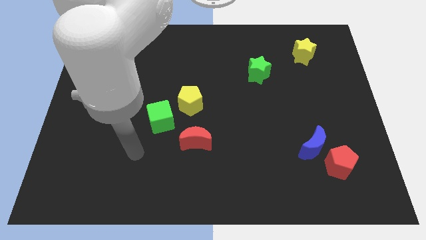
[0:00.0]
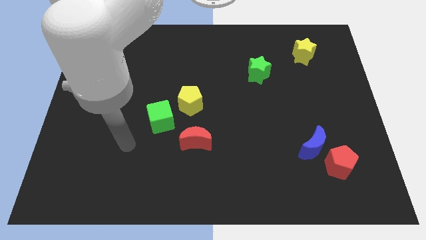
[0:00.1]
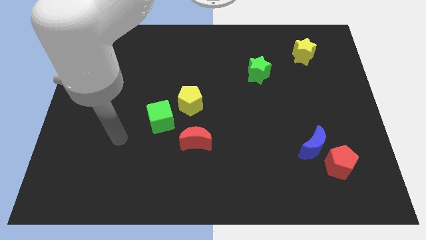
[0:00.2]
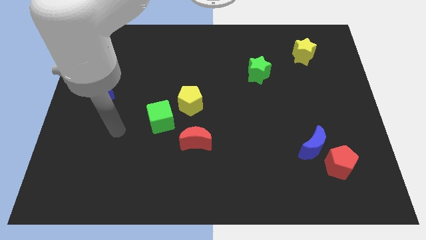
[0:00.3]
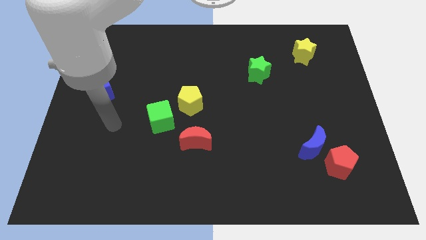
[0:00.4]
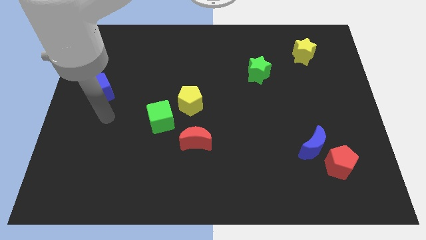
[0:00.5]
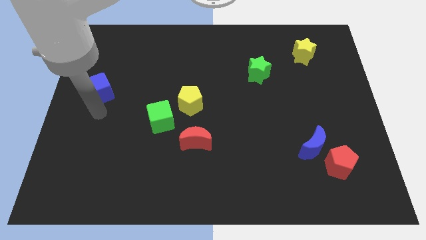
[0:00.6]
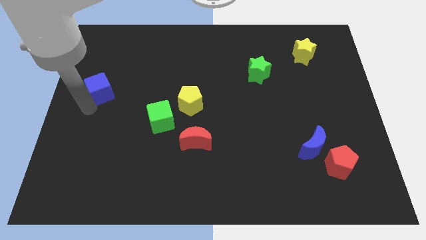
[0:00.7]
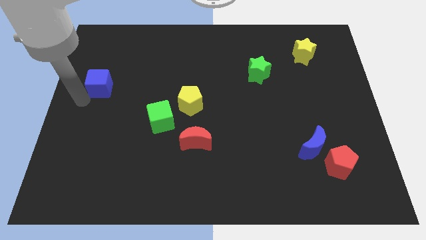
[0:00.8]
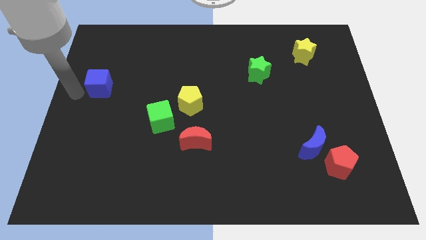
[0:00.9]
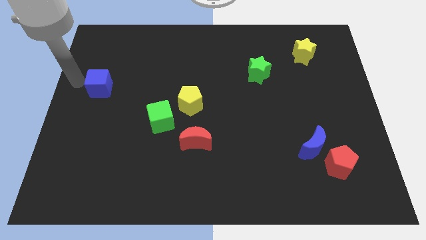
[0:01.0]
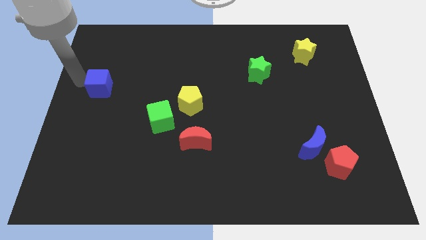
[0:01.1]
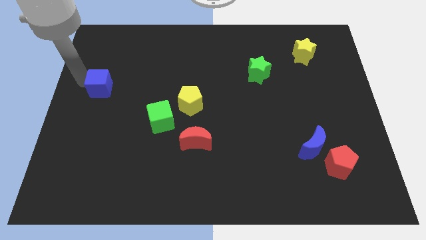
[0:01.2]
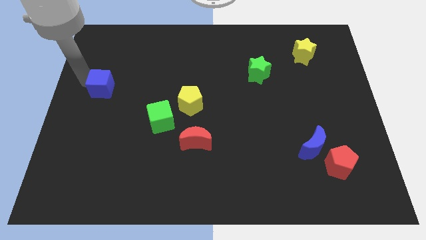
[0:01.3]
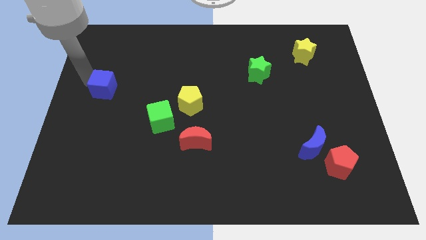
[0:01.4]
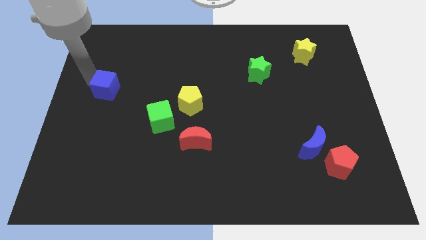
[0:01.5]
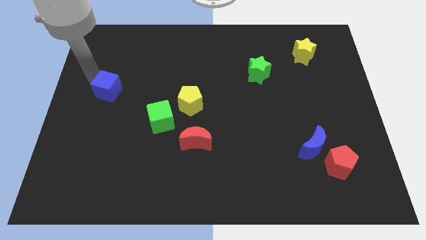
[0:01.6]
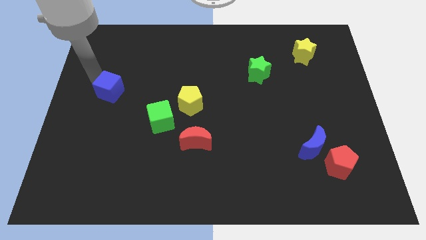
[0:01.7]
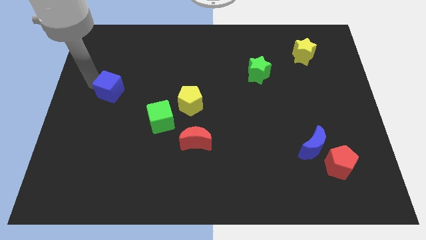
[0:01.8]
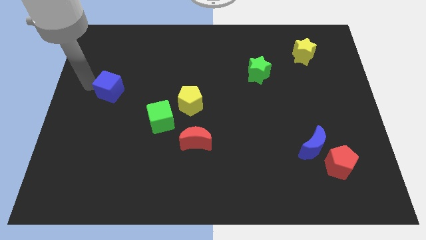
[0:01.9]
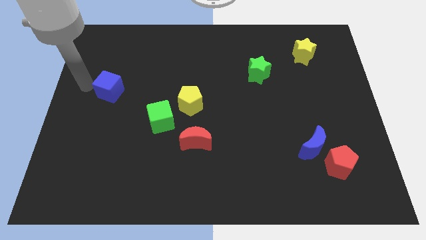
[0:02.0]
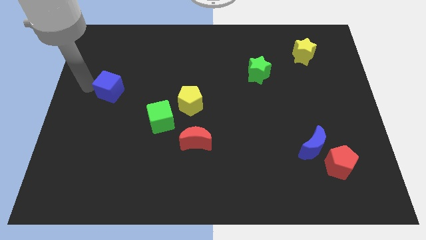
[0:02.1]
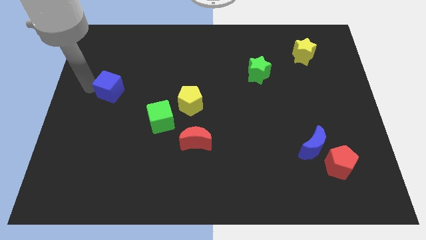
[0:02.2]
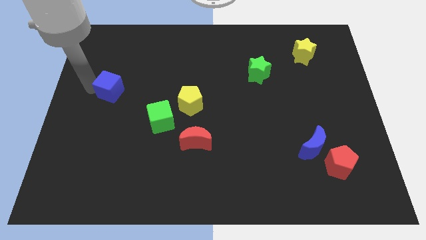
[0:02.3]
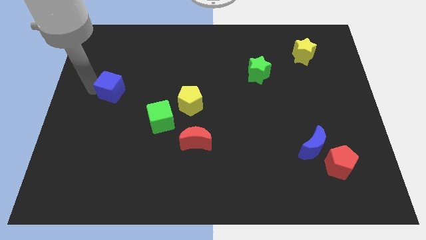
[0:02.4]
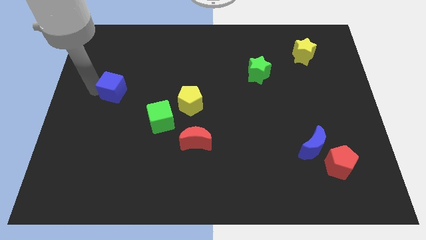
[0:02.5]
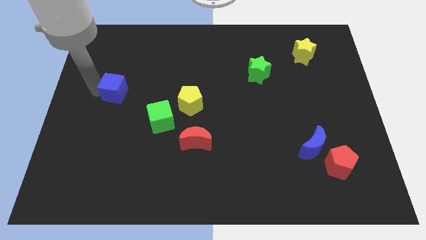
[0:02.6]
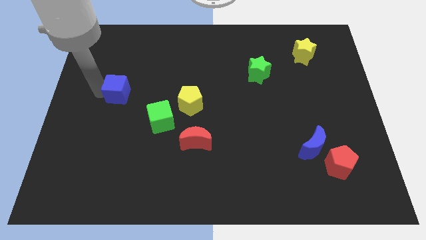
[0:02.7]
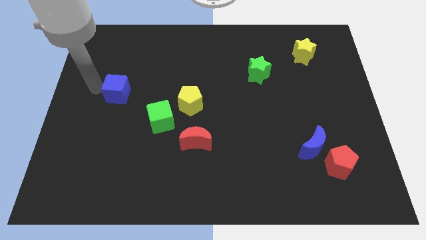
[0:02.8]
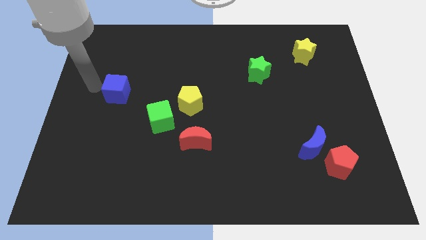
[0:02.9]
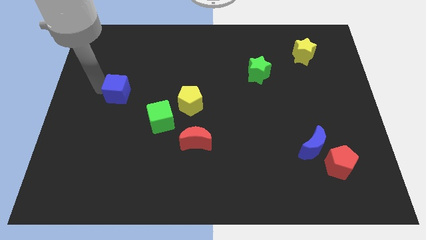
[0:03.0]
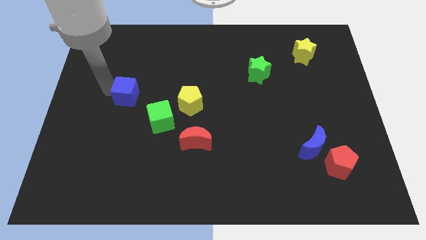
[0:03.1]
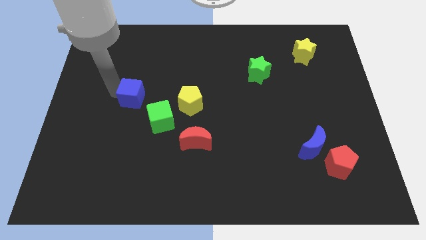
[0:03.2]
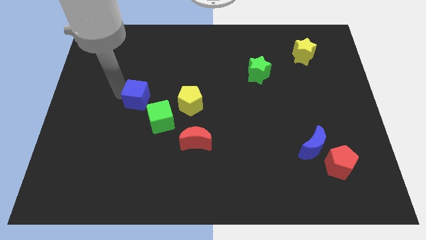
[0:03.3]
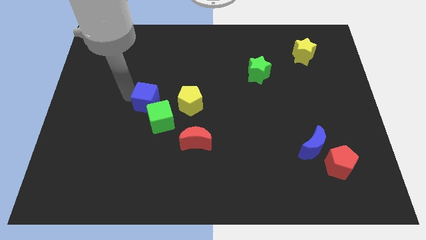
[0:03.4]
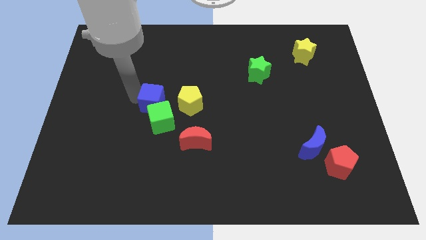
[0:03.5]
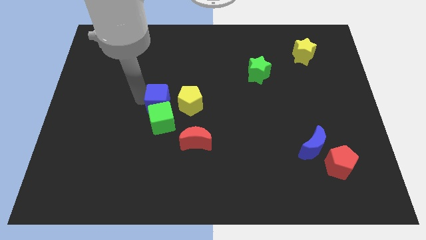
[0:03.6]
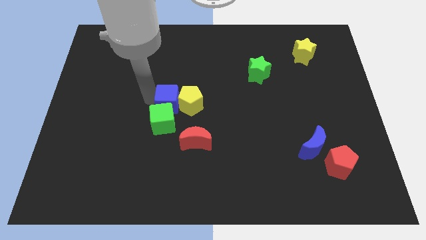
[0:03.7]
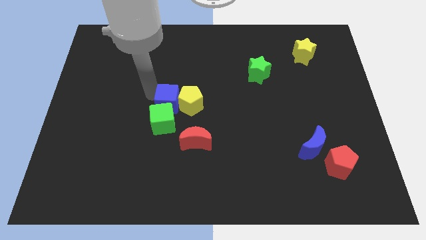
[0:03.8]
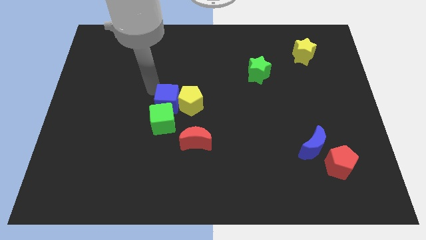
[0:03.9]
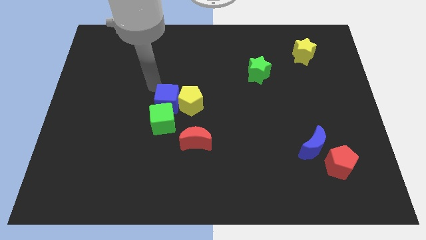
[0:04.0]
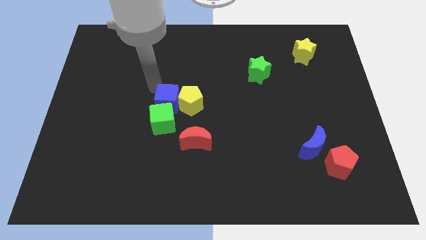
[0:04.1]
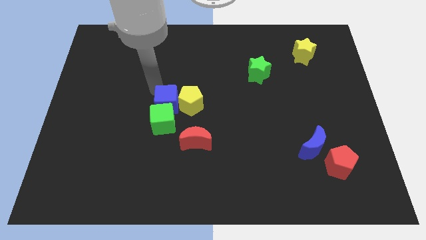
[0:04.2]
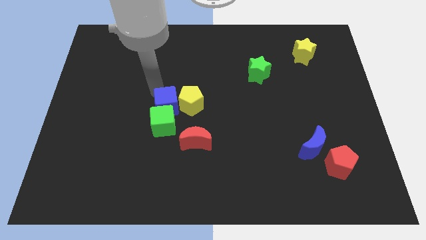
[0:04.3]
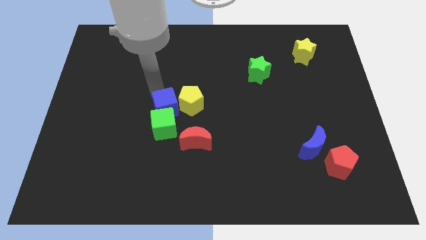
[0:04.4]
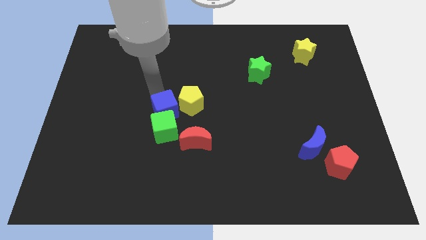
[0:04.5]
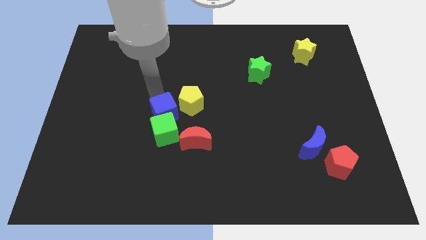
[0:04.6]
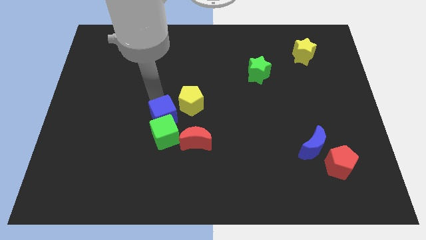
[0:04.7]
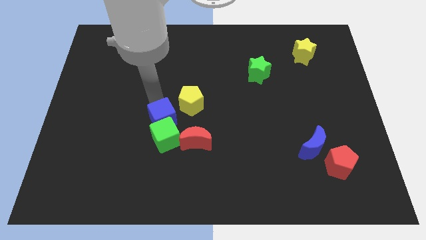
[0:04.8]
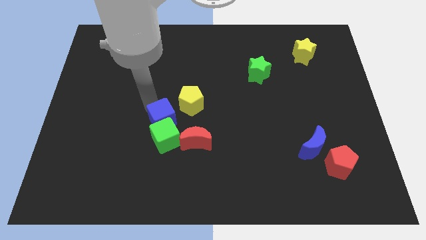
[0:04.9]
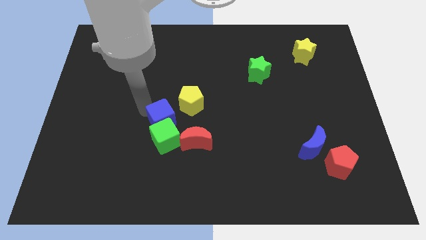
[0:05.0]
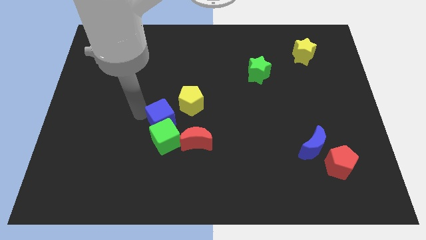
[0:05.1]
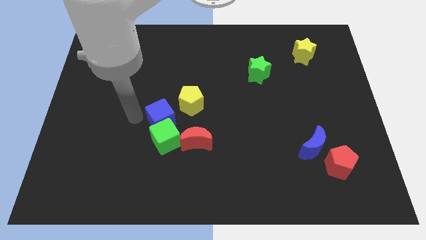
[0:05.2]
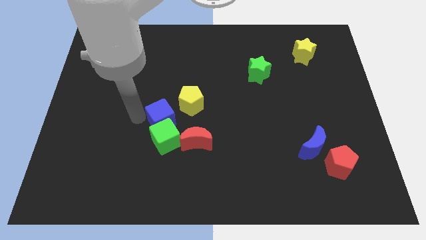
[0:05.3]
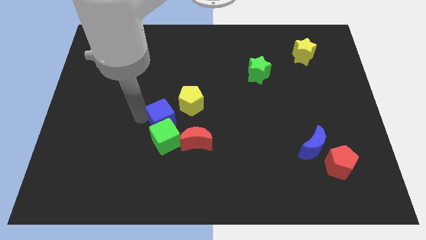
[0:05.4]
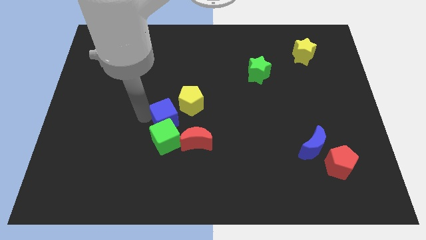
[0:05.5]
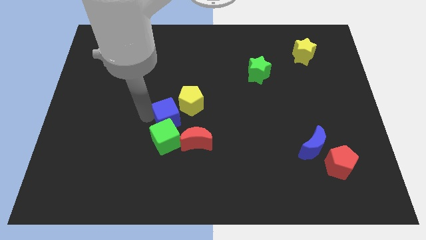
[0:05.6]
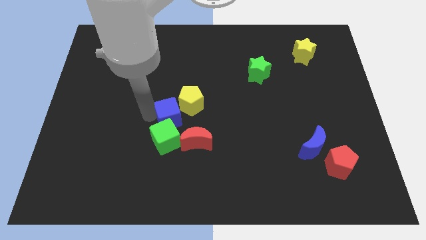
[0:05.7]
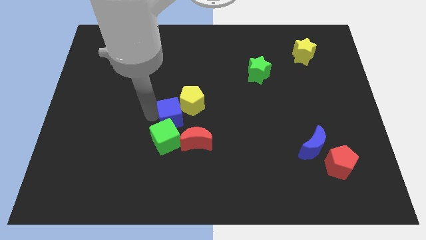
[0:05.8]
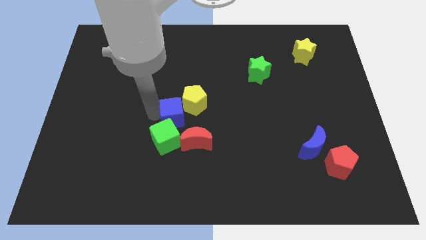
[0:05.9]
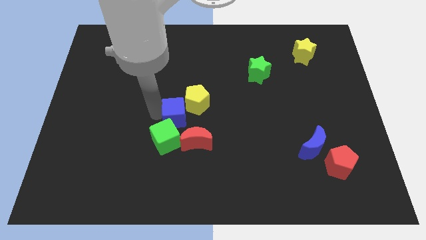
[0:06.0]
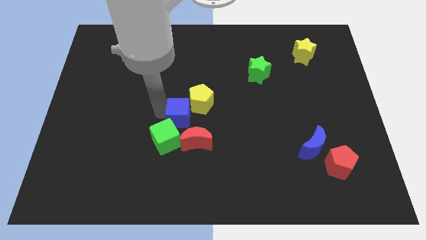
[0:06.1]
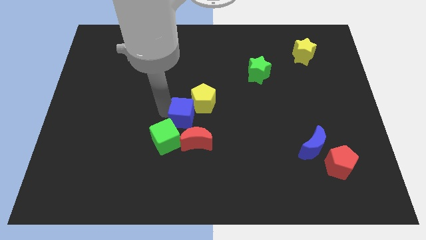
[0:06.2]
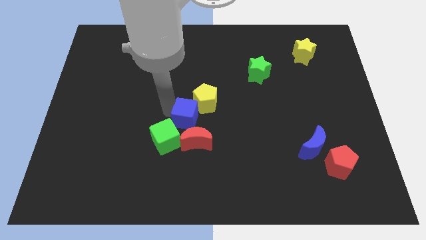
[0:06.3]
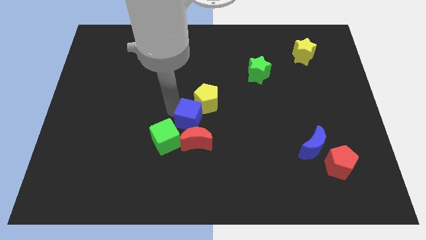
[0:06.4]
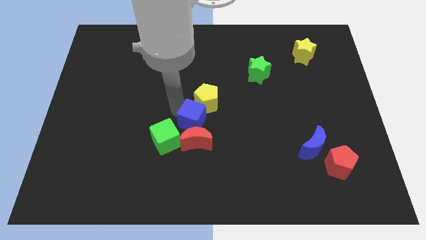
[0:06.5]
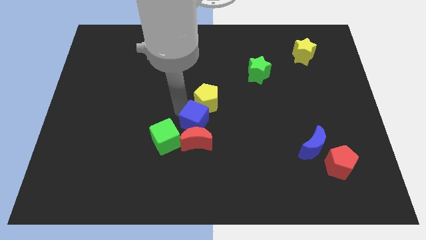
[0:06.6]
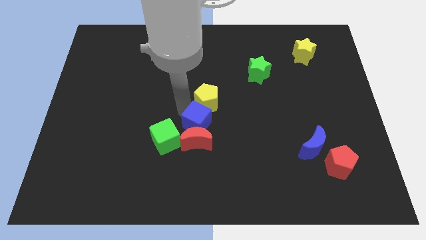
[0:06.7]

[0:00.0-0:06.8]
put the blue cube just right of the green cube
